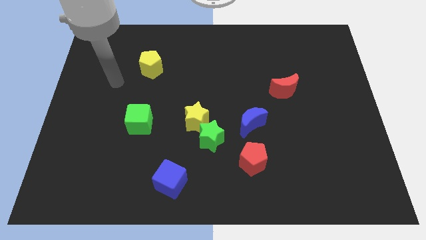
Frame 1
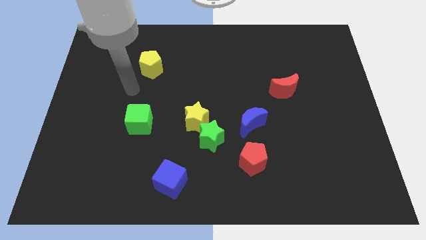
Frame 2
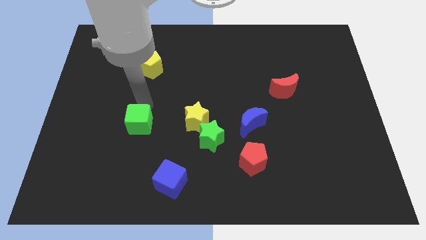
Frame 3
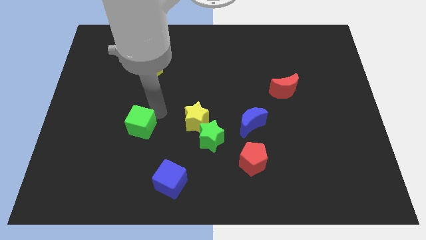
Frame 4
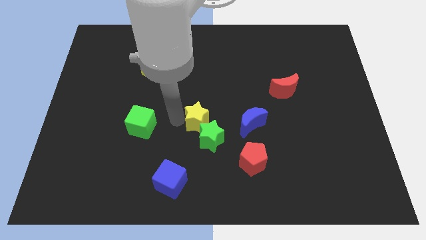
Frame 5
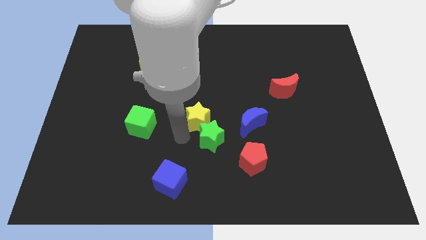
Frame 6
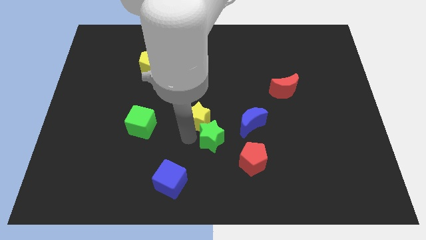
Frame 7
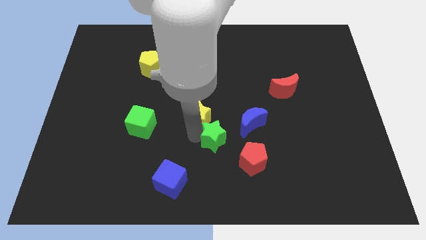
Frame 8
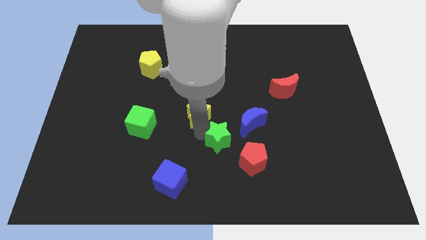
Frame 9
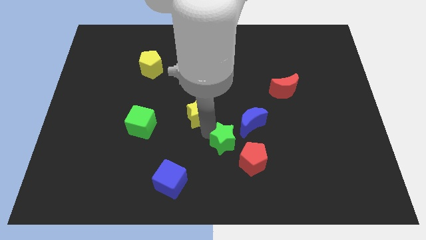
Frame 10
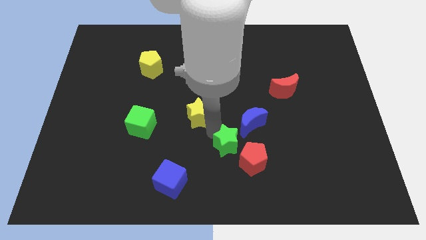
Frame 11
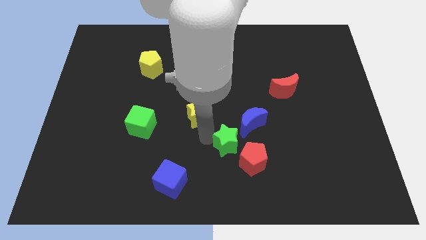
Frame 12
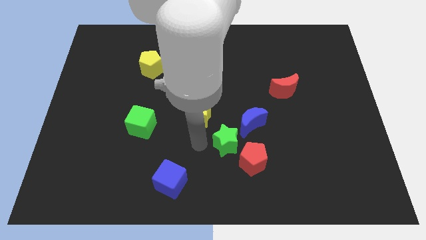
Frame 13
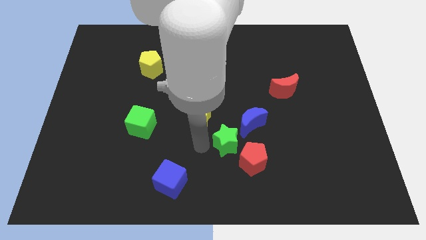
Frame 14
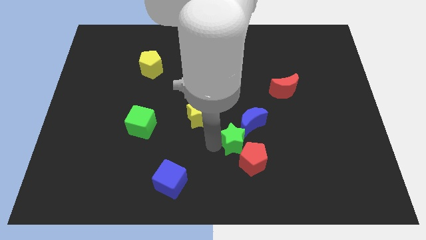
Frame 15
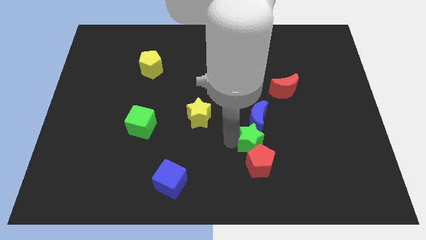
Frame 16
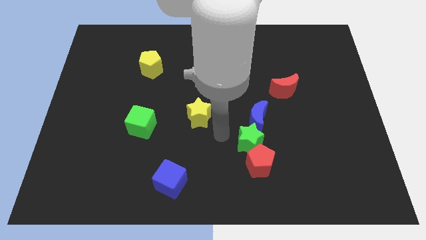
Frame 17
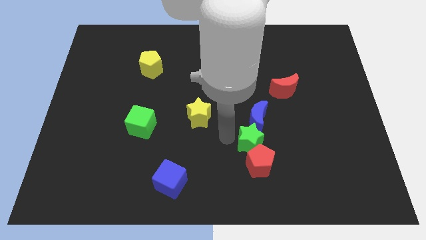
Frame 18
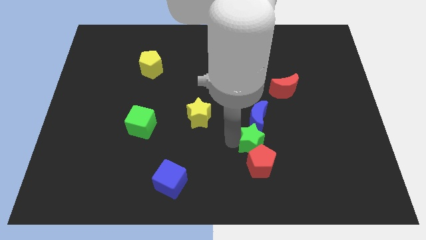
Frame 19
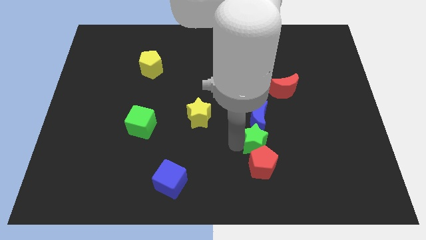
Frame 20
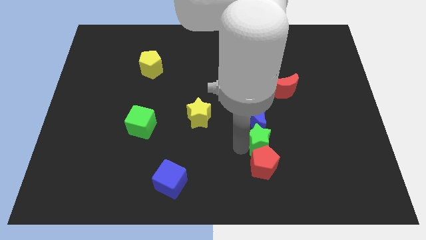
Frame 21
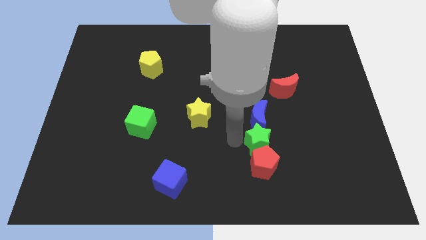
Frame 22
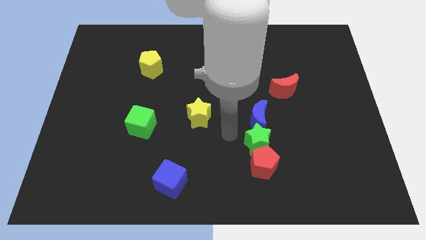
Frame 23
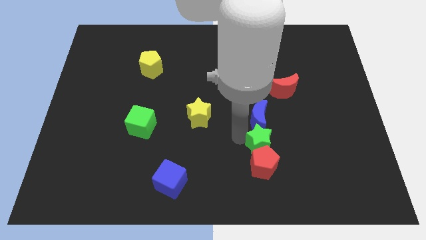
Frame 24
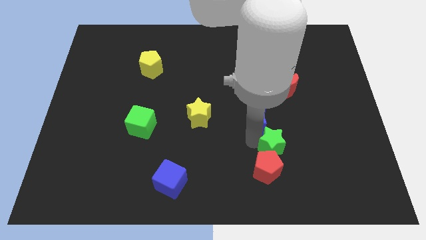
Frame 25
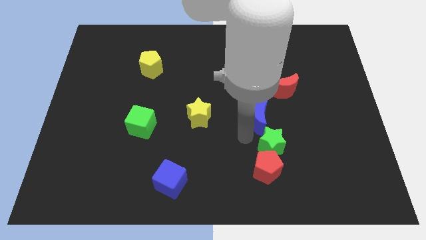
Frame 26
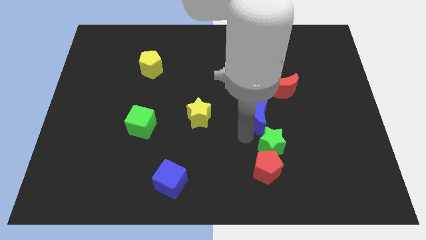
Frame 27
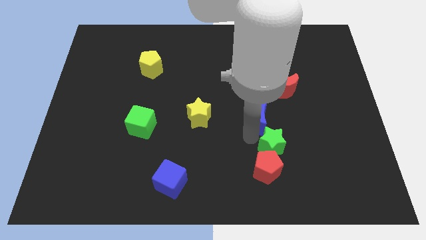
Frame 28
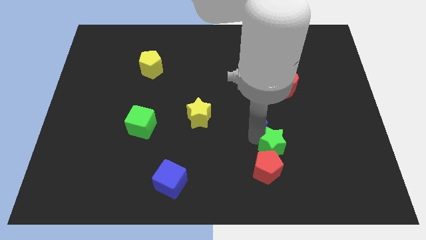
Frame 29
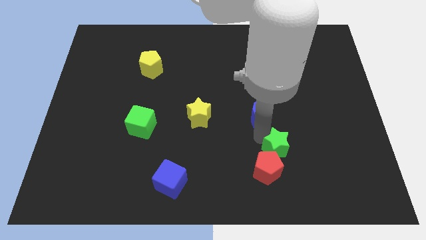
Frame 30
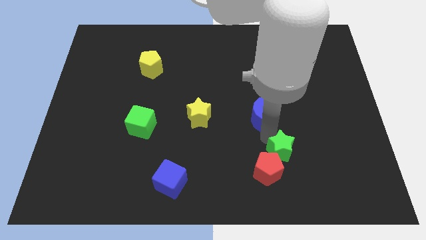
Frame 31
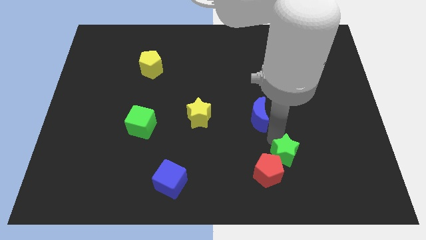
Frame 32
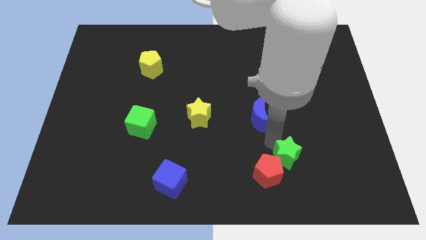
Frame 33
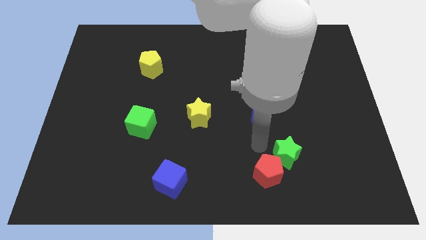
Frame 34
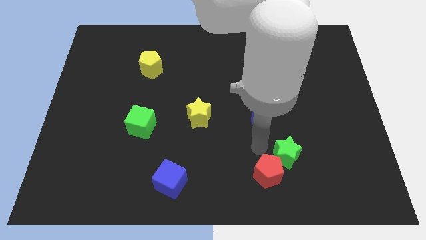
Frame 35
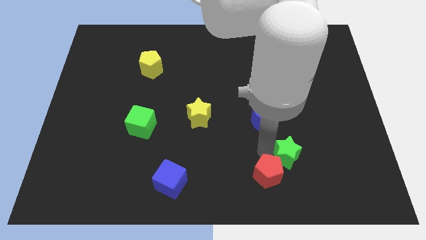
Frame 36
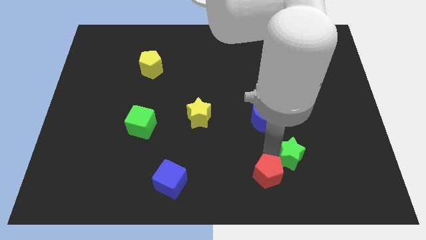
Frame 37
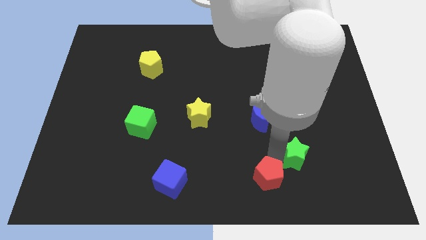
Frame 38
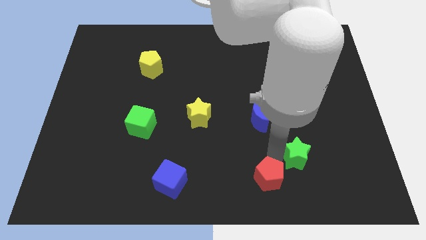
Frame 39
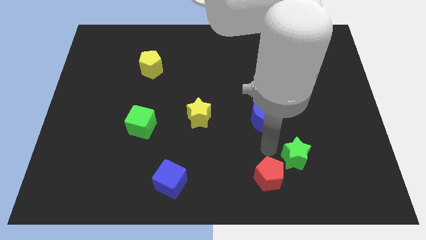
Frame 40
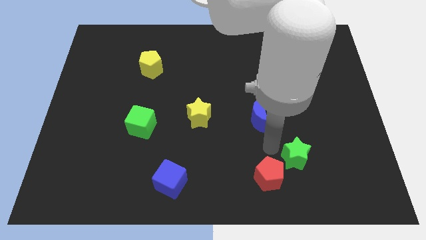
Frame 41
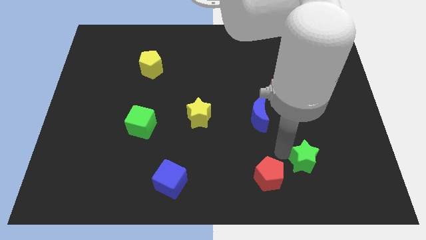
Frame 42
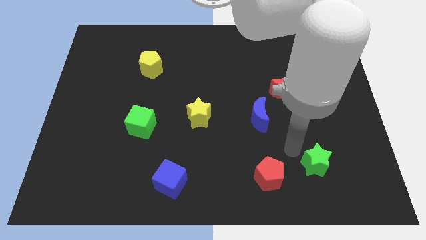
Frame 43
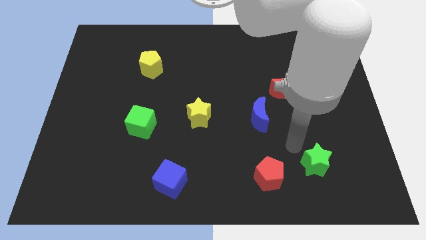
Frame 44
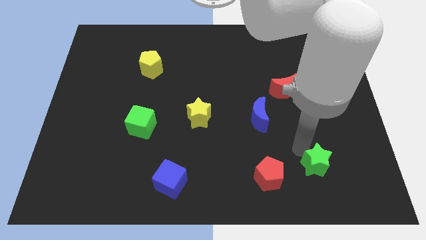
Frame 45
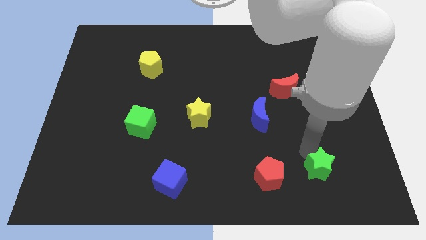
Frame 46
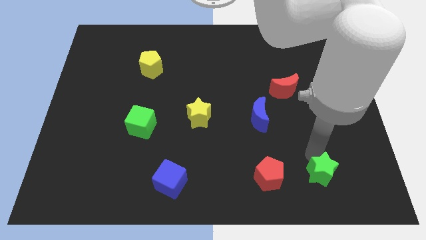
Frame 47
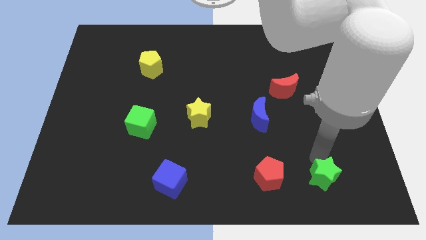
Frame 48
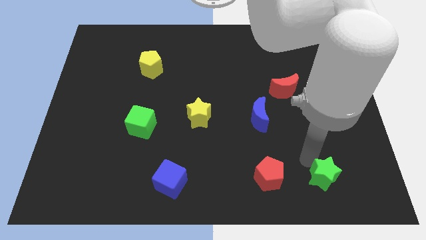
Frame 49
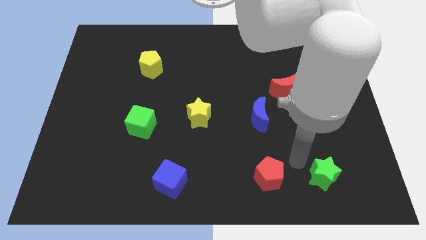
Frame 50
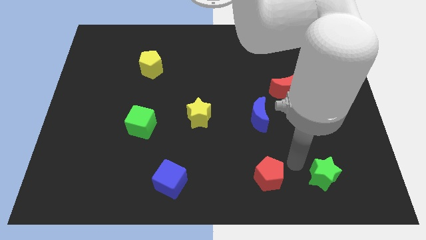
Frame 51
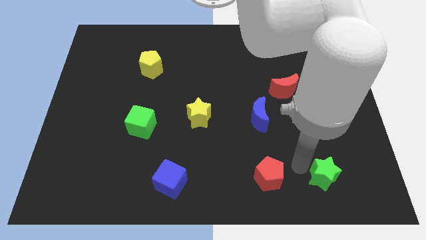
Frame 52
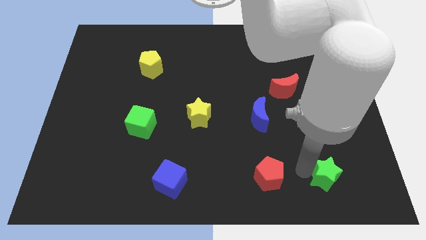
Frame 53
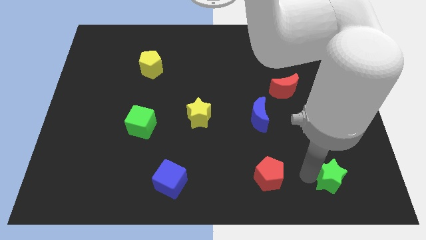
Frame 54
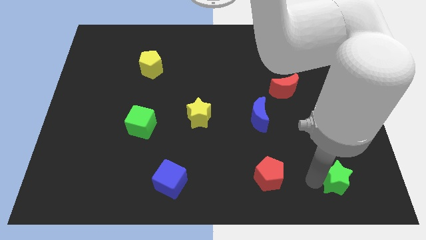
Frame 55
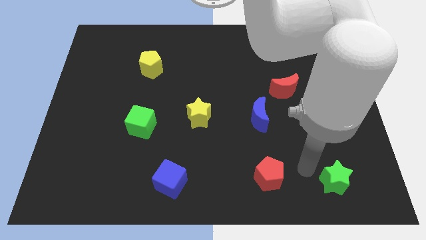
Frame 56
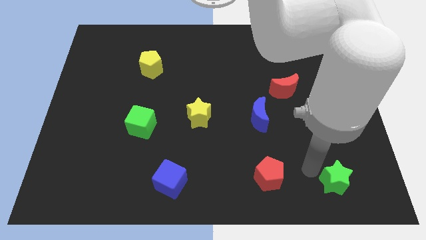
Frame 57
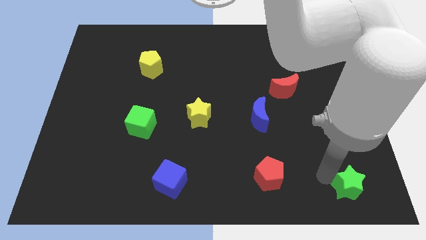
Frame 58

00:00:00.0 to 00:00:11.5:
move the green star to the lower right corner
